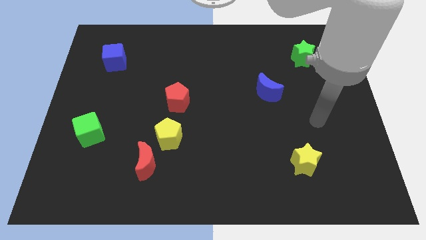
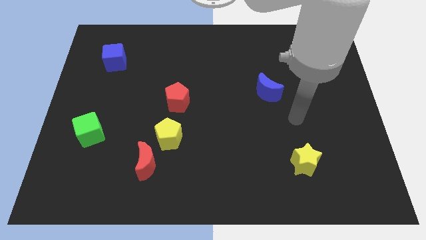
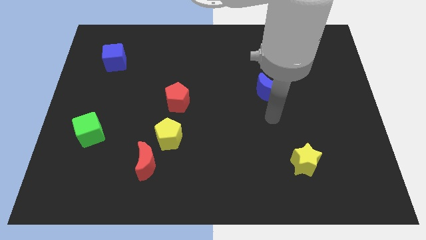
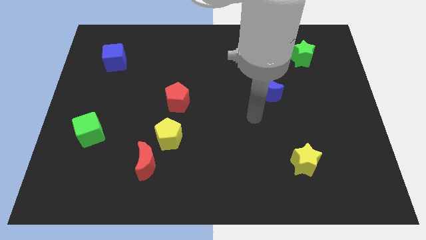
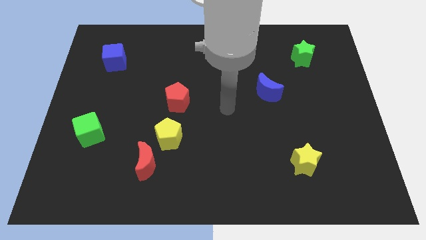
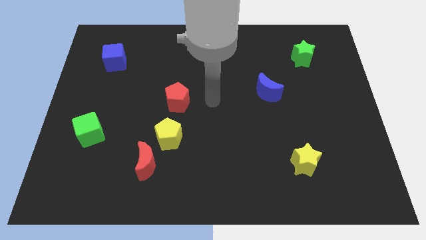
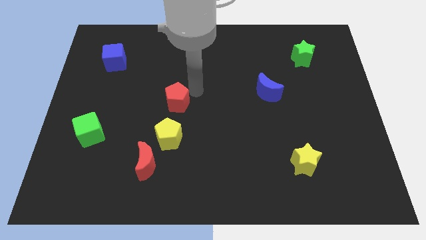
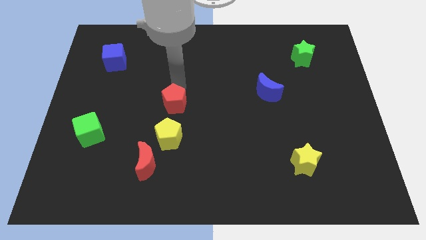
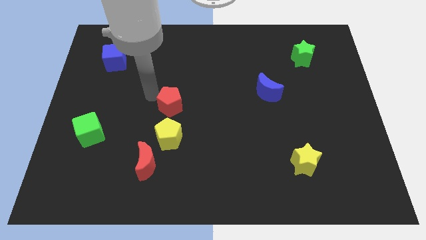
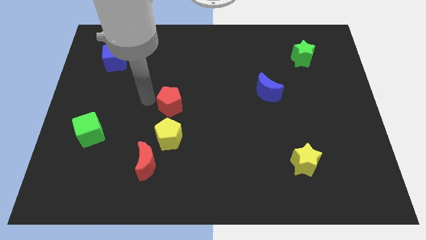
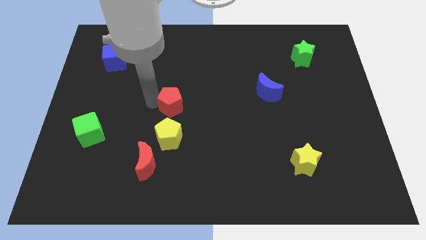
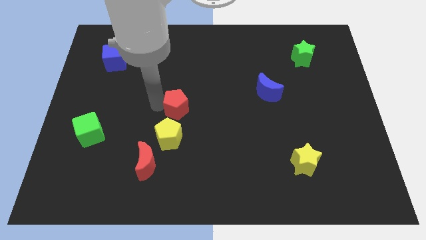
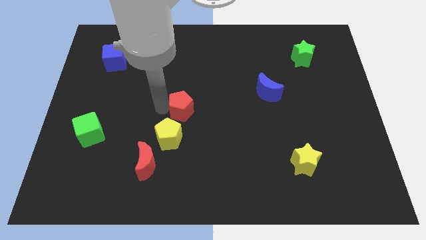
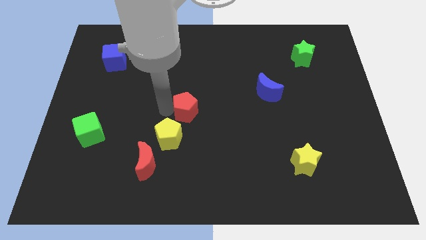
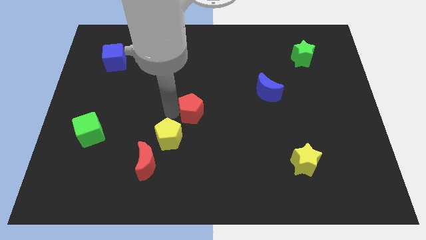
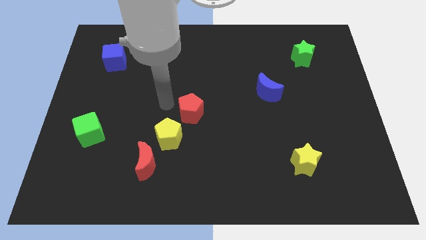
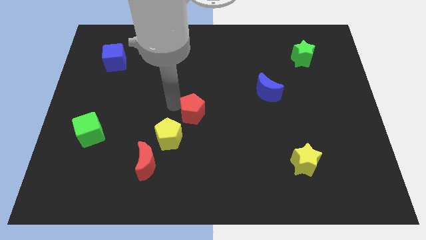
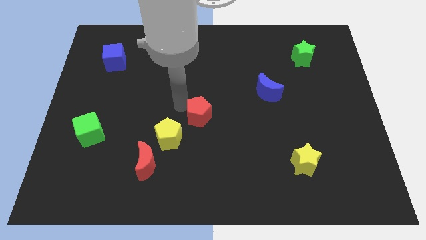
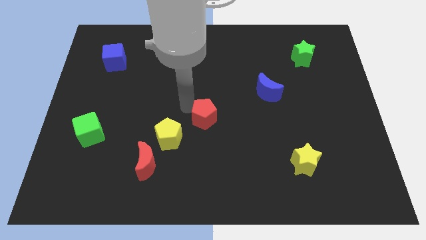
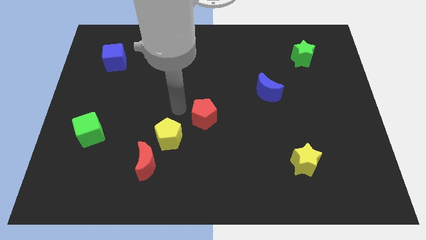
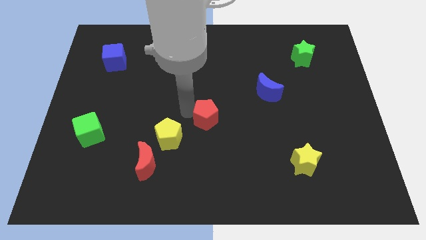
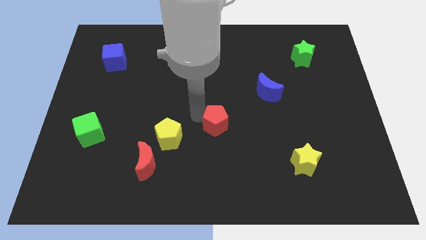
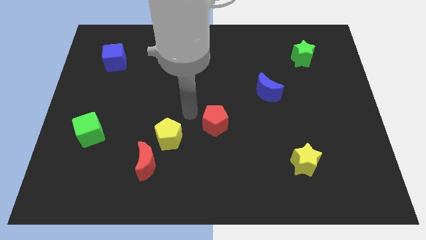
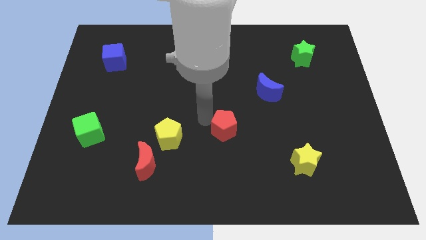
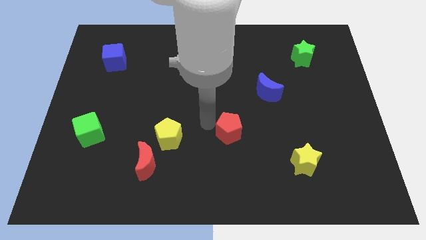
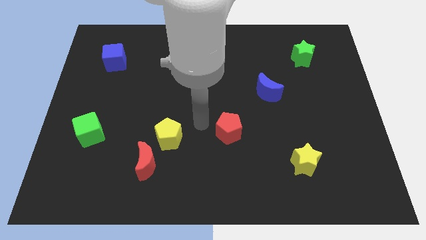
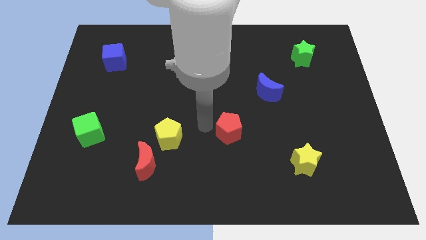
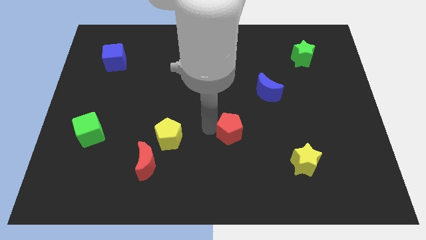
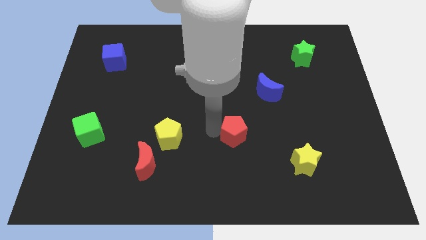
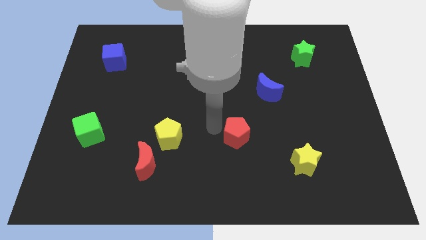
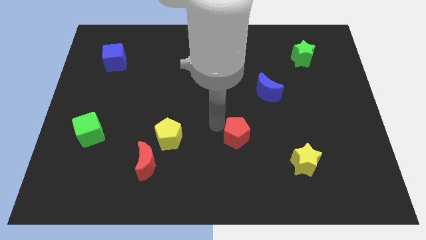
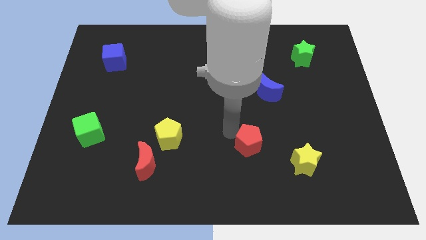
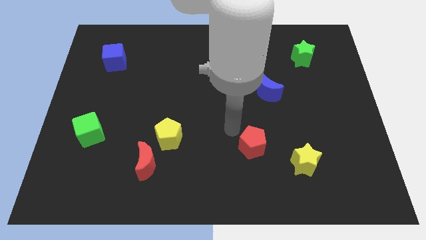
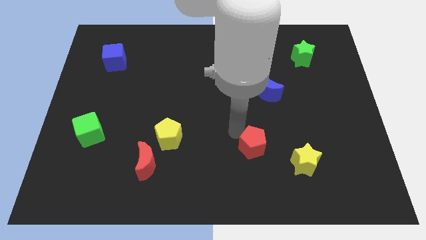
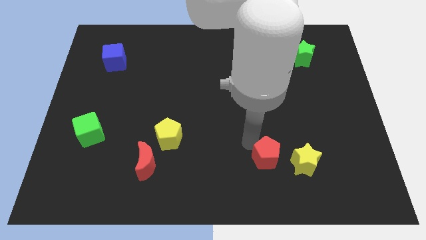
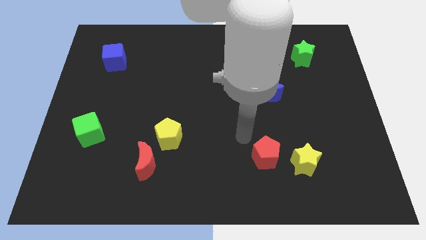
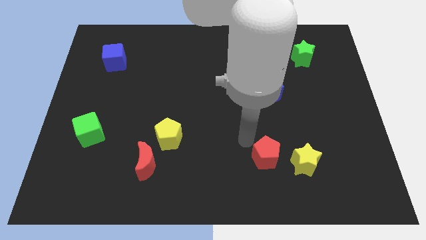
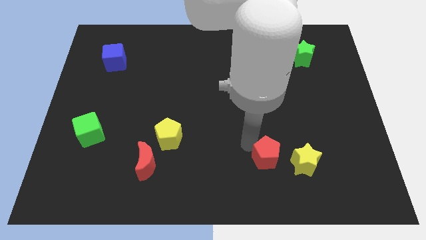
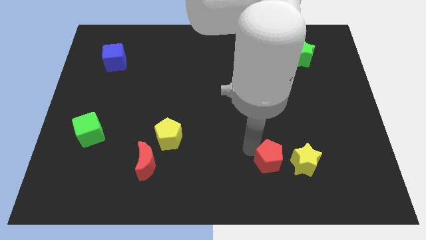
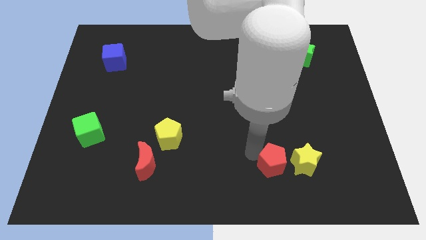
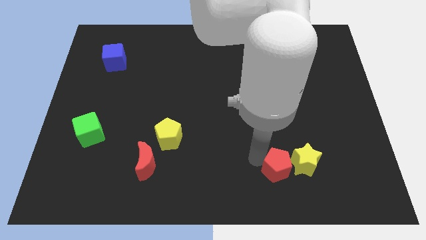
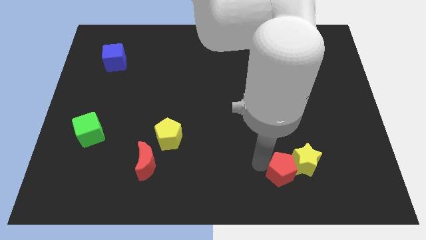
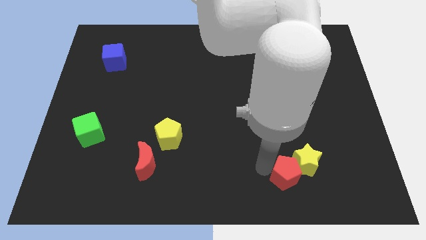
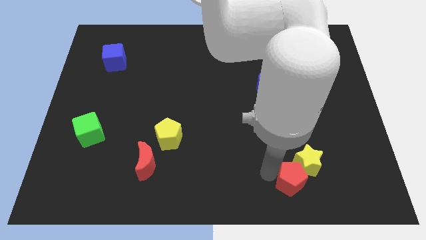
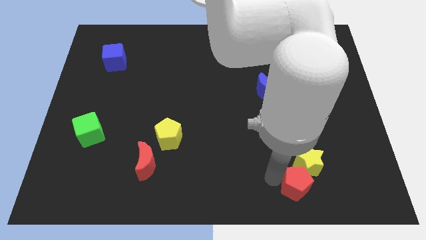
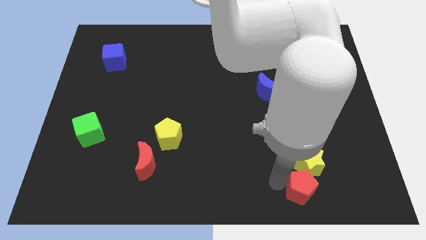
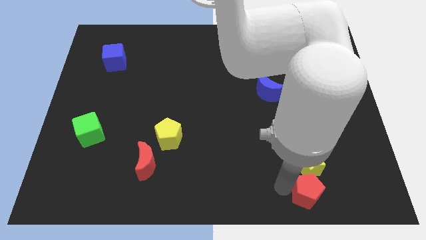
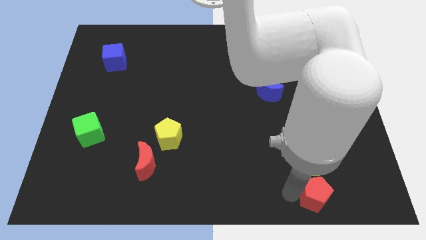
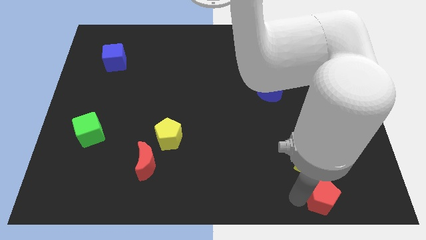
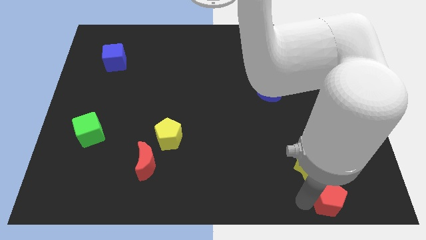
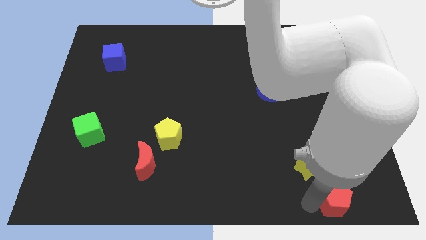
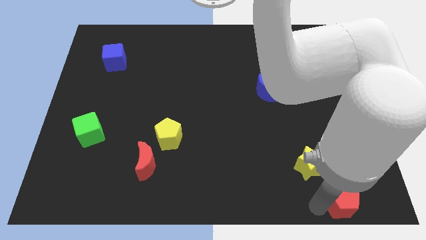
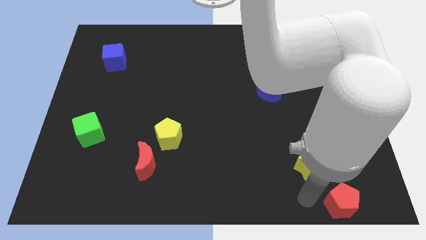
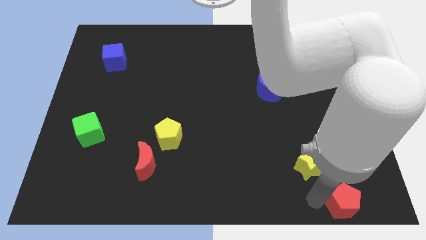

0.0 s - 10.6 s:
put the red pentagon to the bottom right

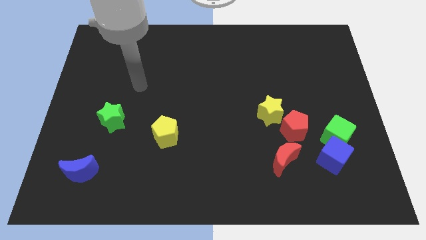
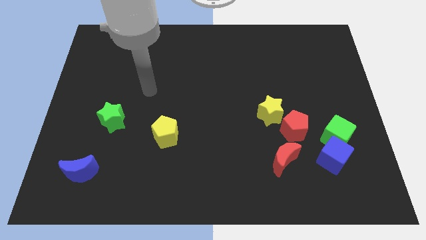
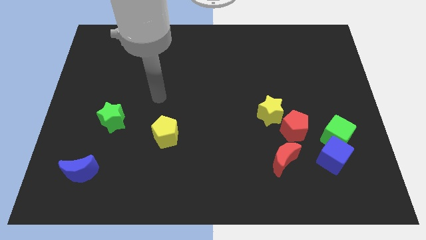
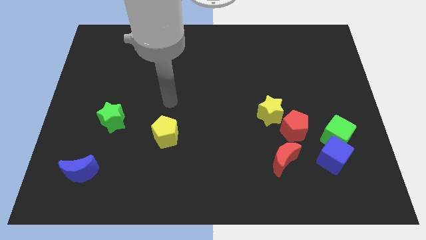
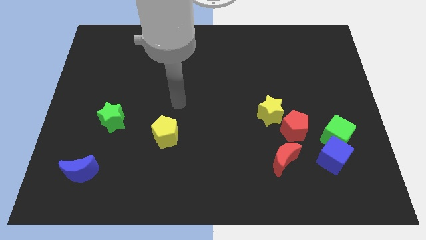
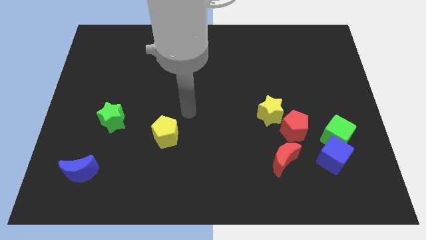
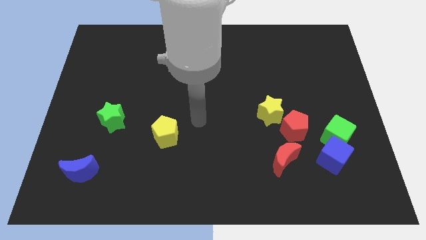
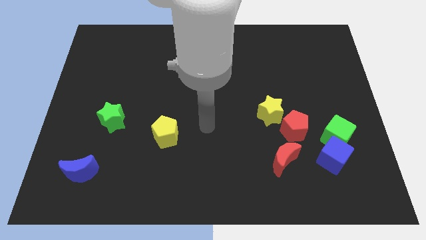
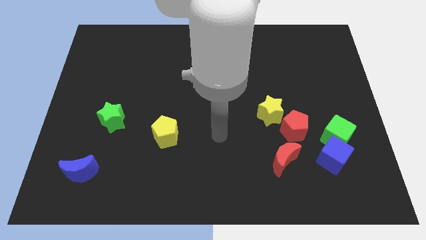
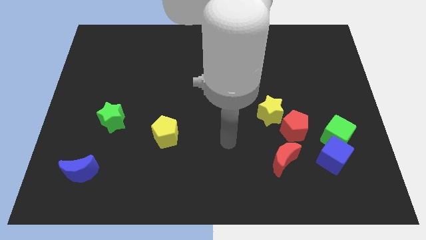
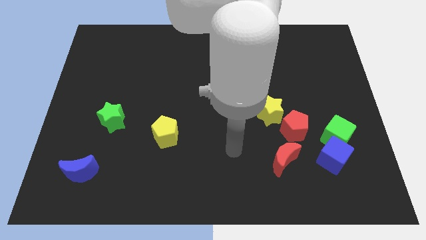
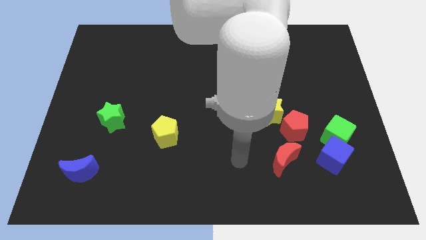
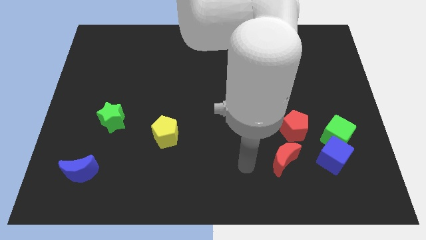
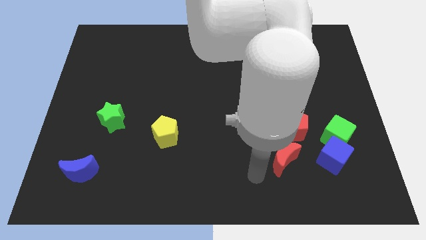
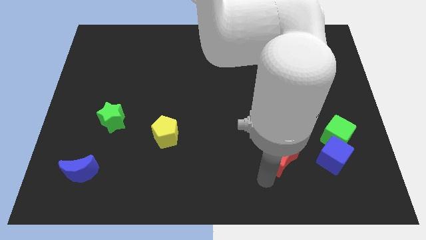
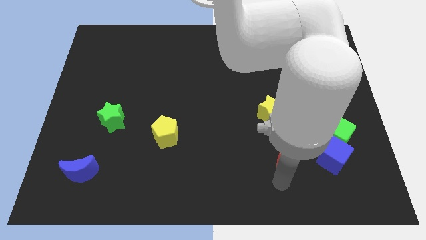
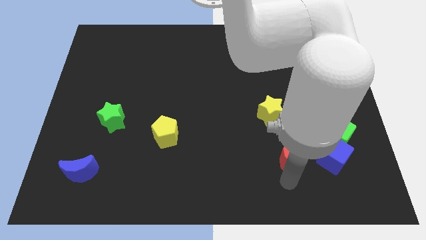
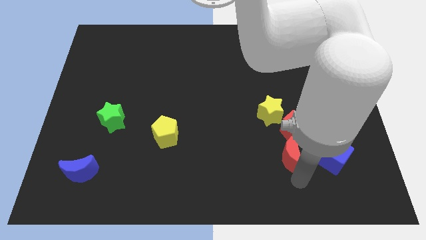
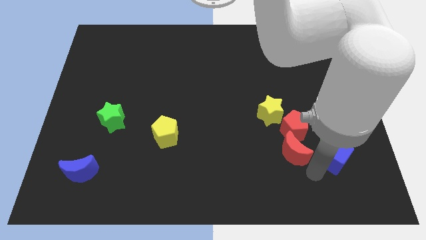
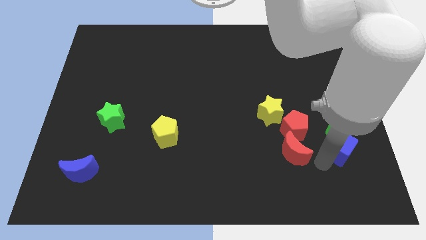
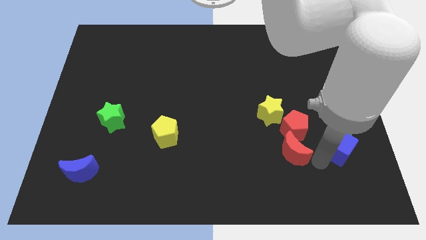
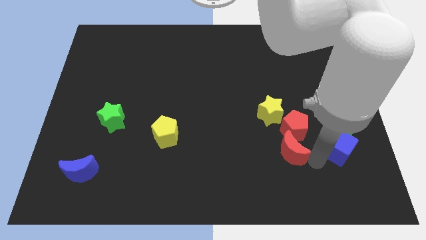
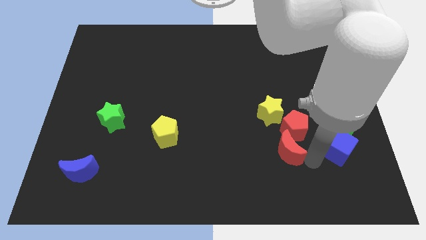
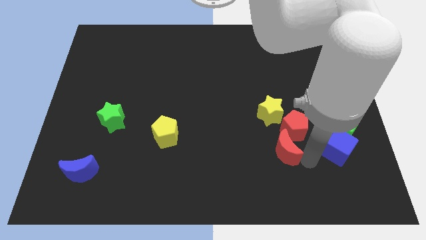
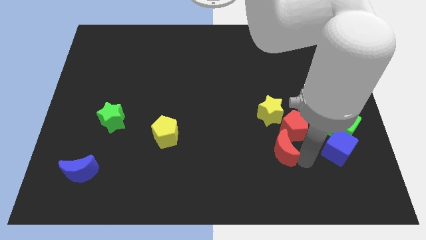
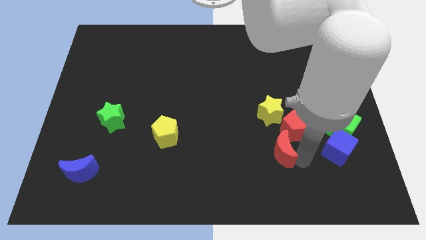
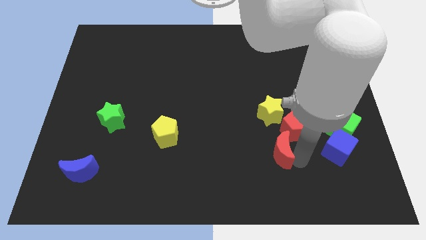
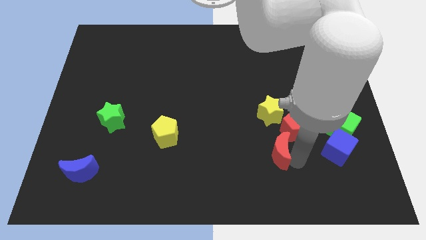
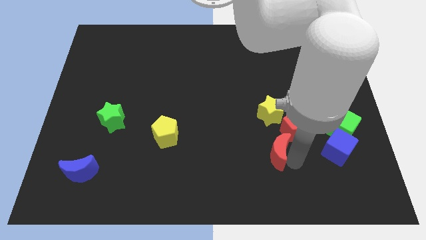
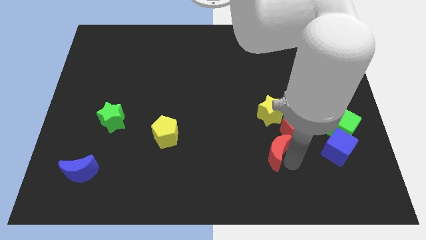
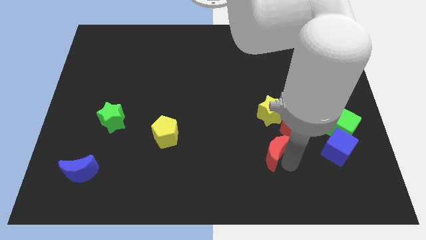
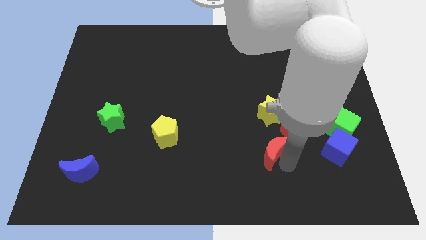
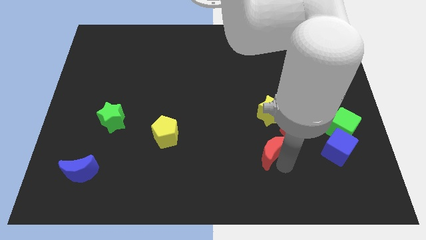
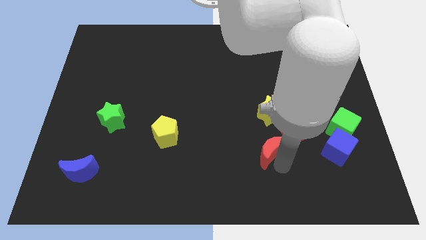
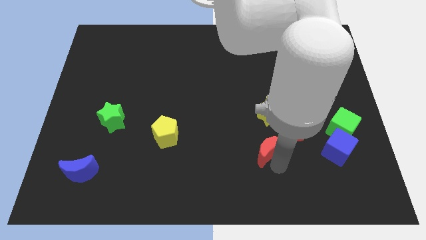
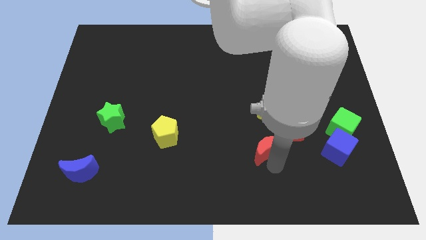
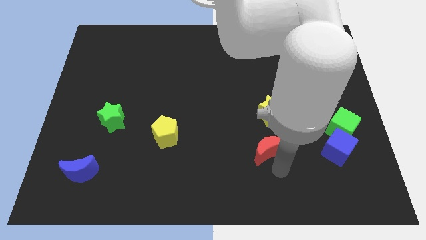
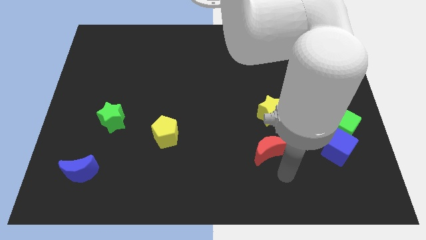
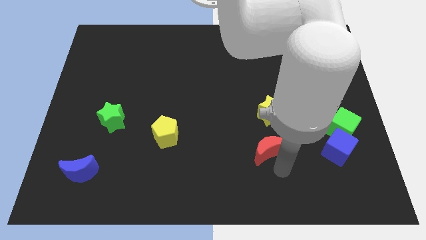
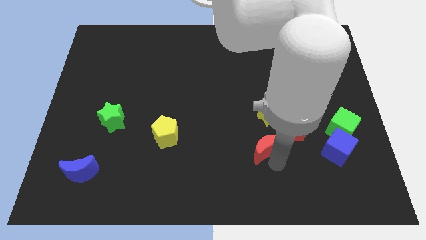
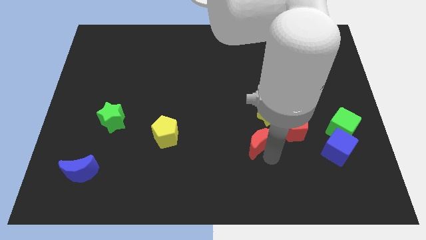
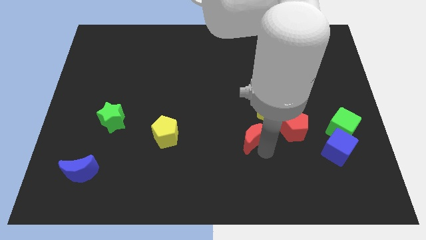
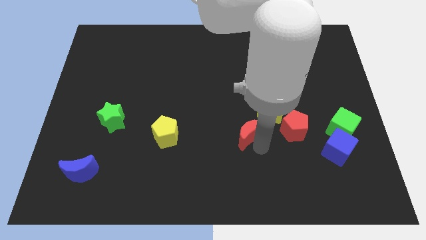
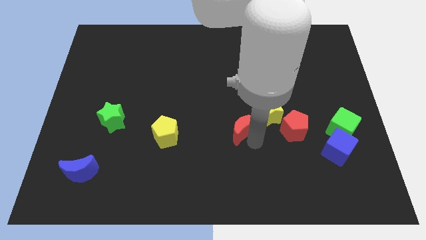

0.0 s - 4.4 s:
push the red moon to the middle
